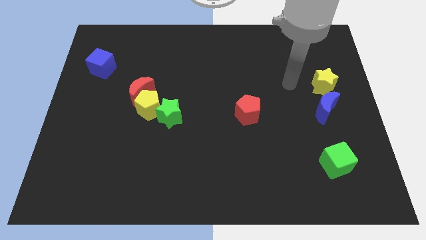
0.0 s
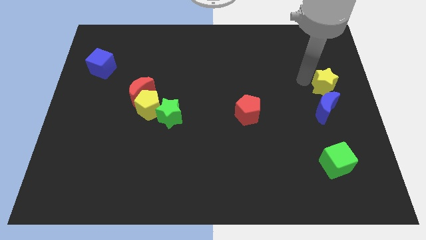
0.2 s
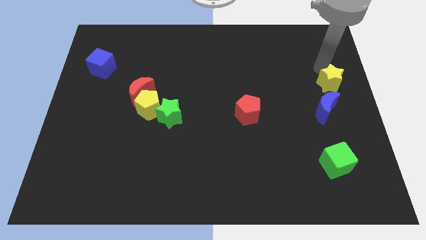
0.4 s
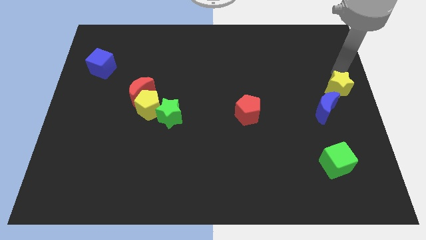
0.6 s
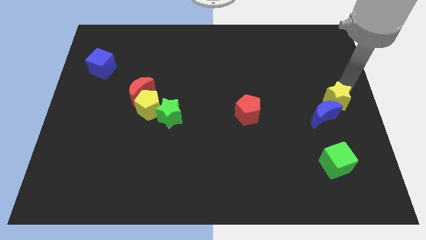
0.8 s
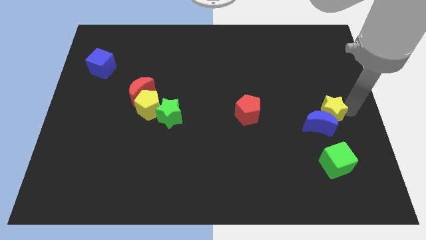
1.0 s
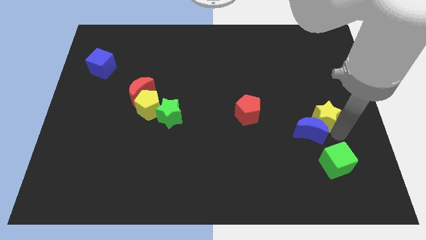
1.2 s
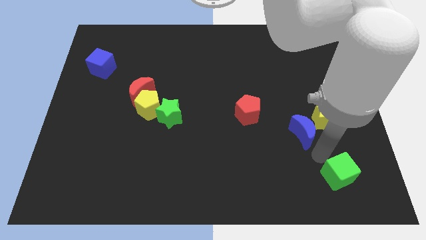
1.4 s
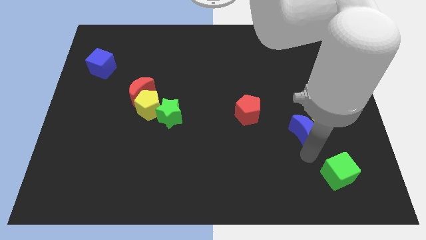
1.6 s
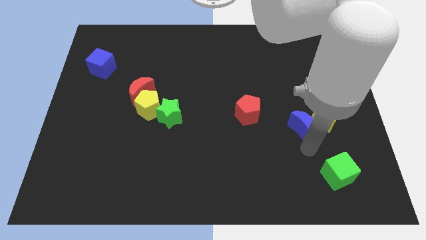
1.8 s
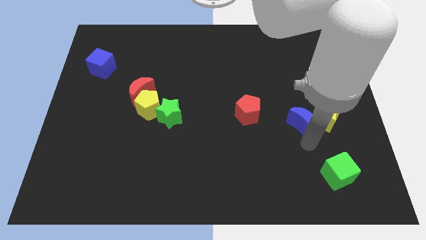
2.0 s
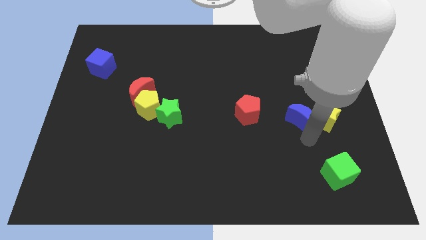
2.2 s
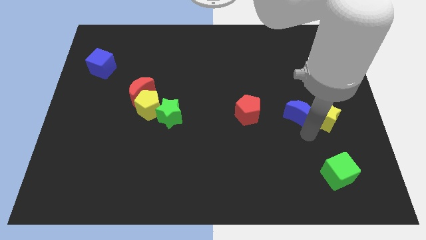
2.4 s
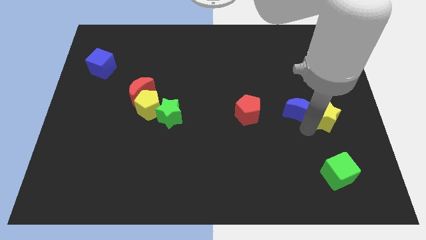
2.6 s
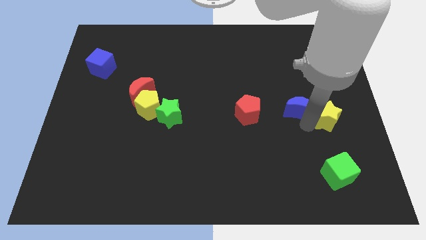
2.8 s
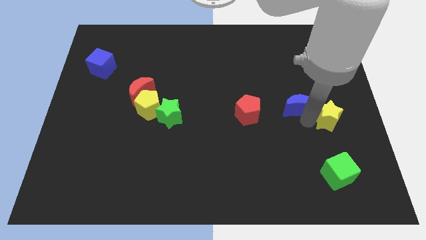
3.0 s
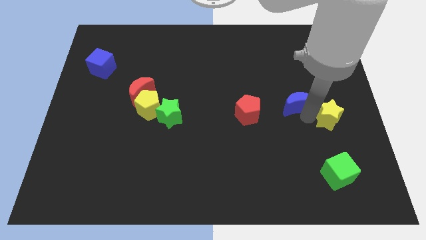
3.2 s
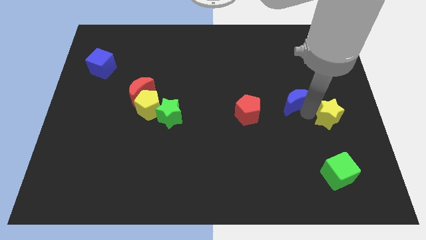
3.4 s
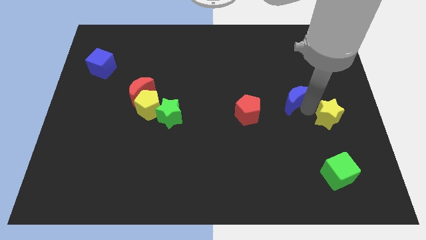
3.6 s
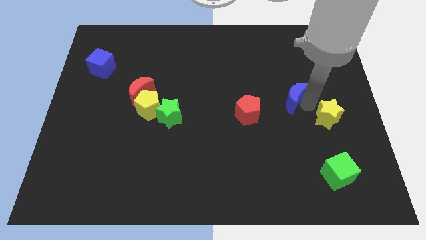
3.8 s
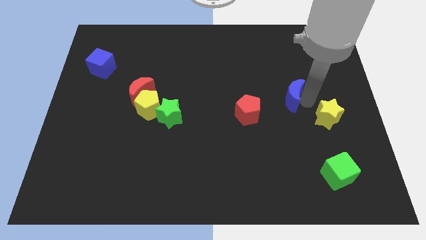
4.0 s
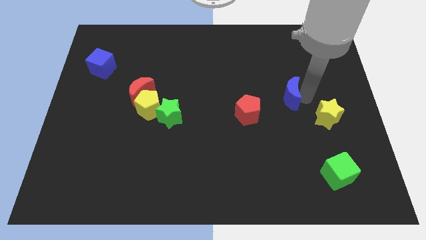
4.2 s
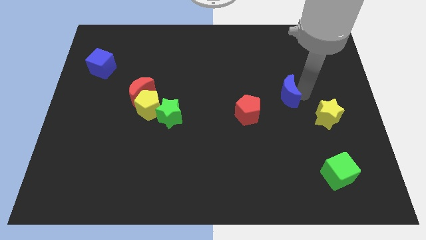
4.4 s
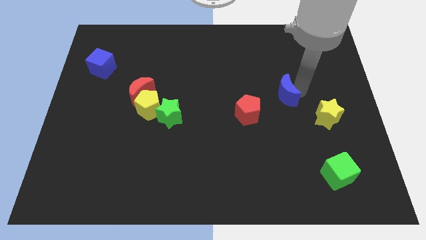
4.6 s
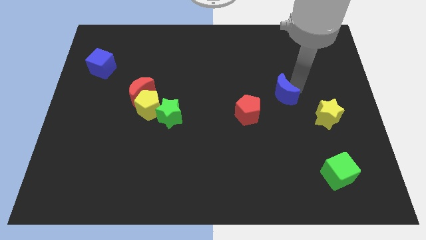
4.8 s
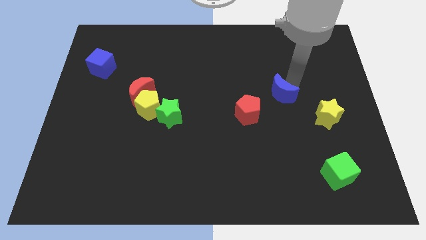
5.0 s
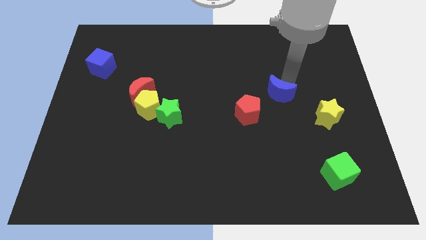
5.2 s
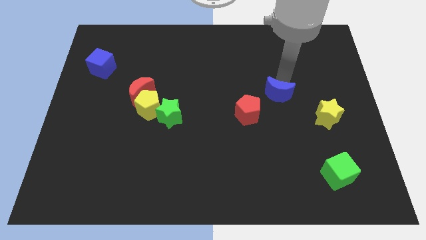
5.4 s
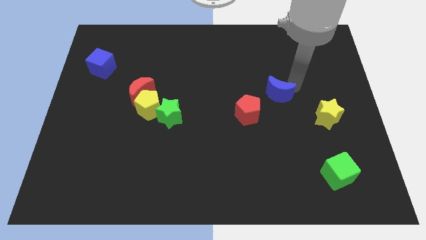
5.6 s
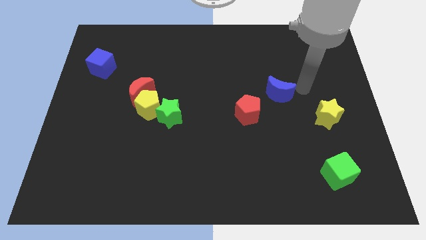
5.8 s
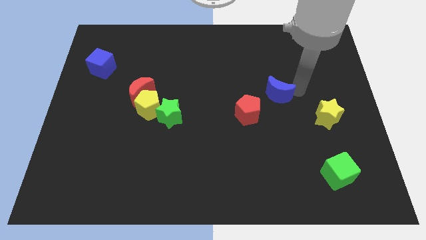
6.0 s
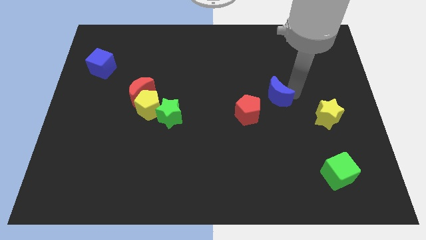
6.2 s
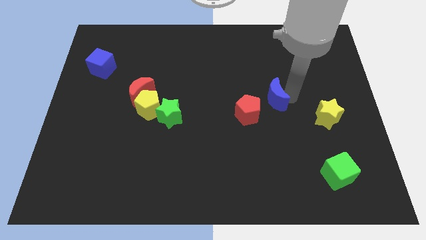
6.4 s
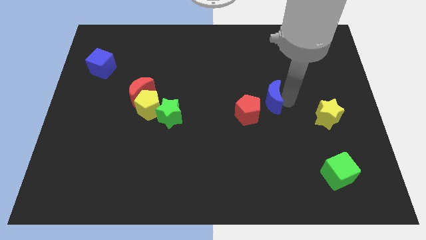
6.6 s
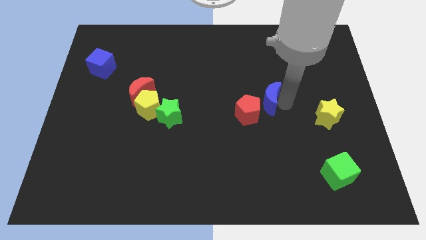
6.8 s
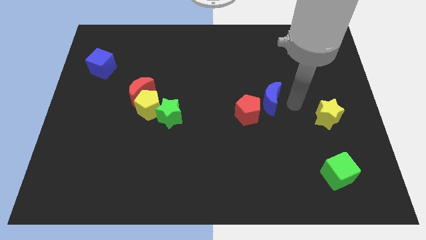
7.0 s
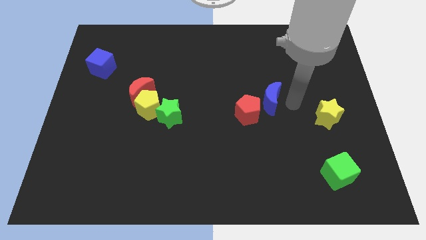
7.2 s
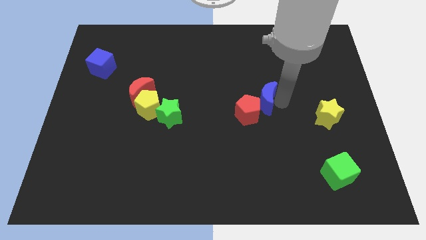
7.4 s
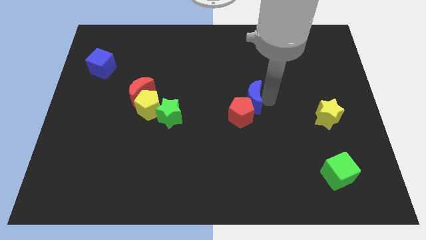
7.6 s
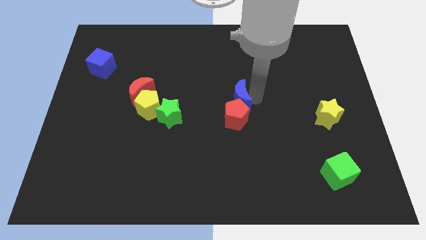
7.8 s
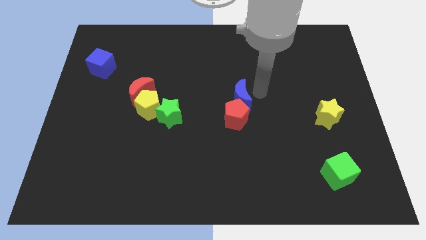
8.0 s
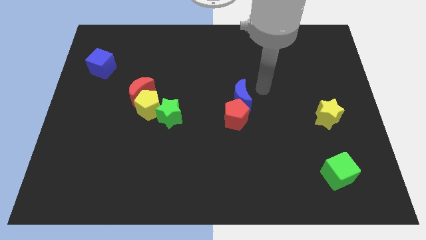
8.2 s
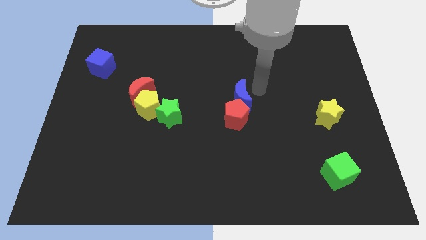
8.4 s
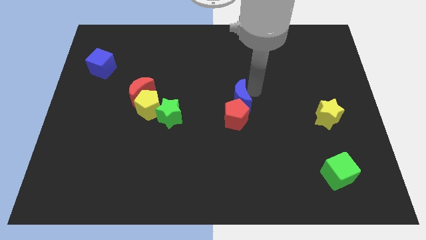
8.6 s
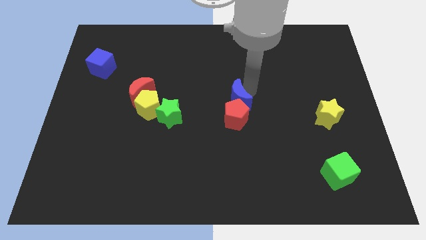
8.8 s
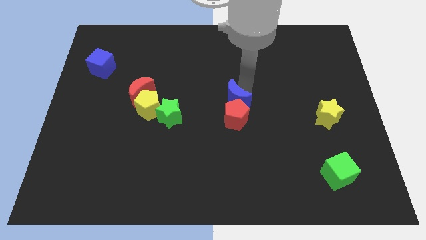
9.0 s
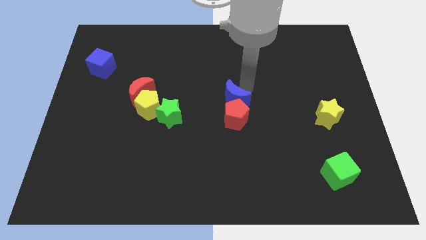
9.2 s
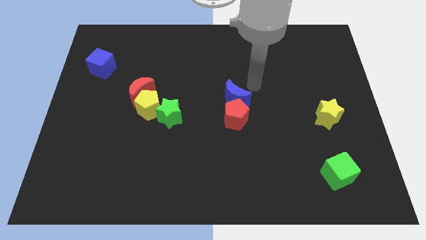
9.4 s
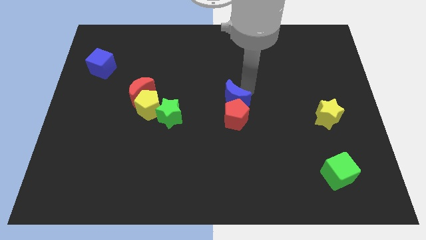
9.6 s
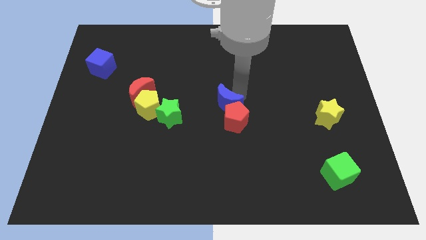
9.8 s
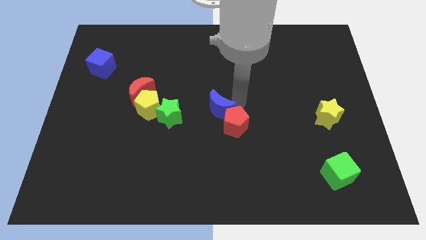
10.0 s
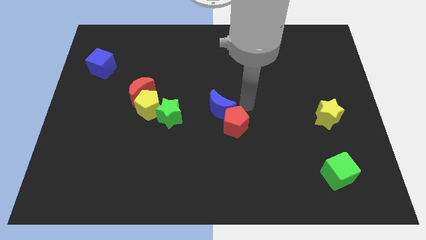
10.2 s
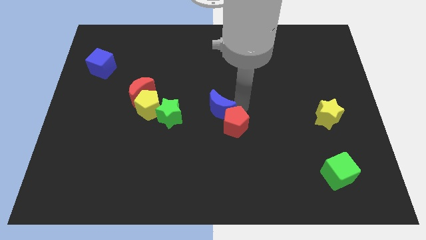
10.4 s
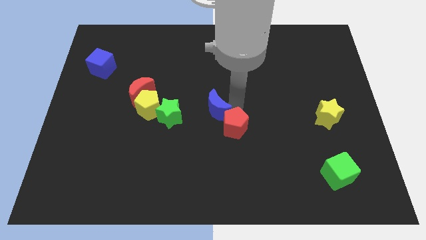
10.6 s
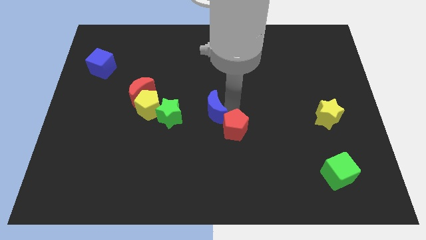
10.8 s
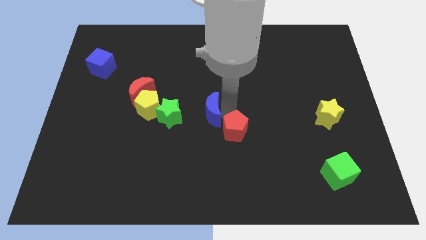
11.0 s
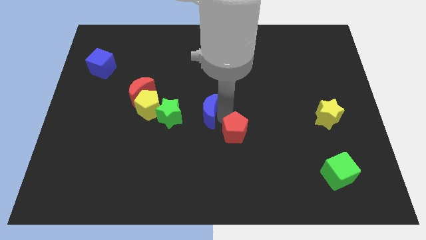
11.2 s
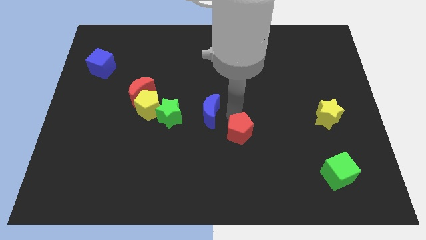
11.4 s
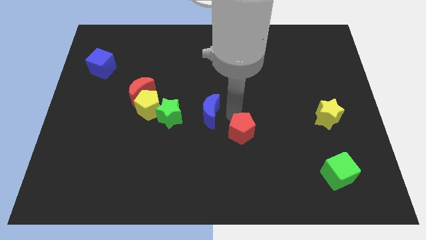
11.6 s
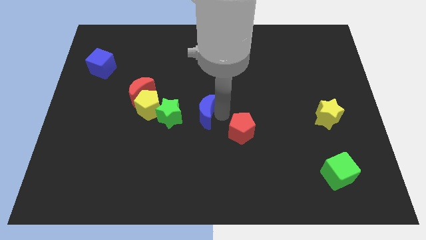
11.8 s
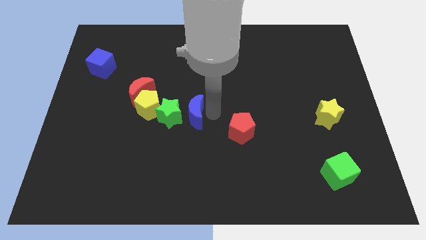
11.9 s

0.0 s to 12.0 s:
slide the blue moon towards the green star

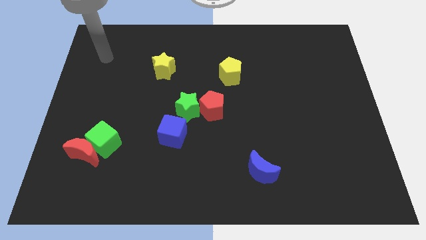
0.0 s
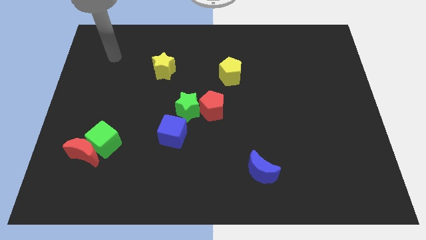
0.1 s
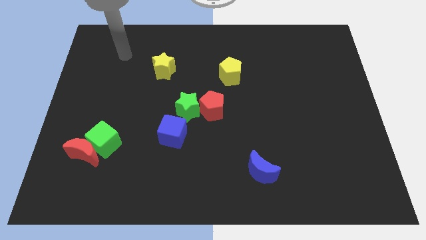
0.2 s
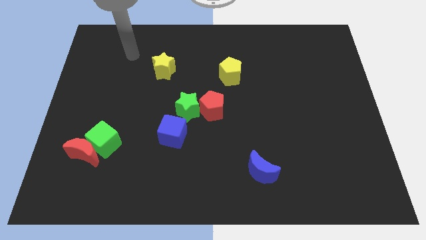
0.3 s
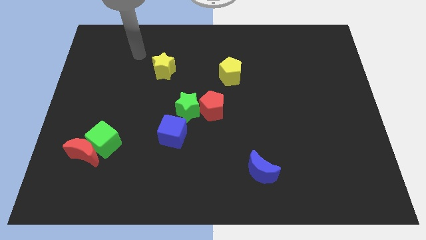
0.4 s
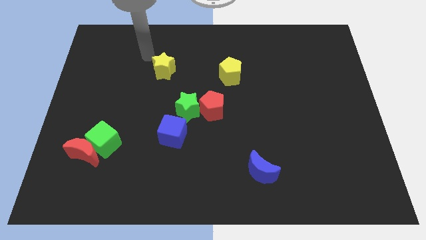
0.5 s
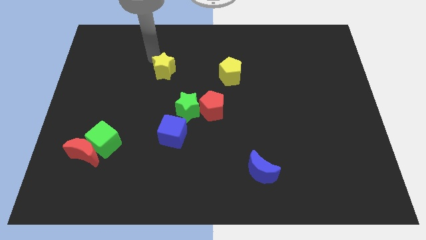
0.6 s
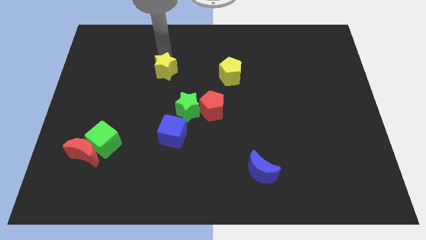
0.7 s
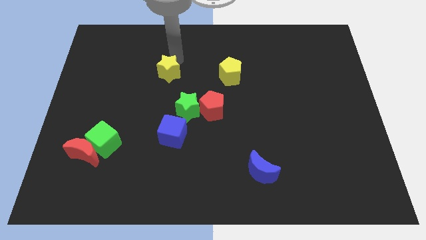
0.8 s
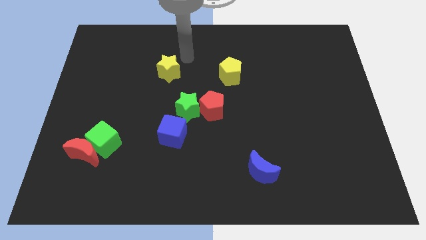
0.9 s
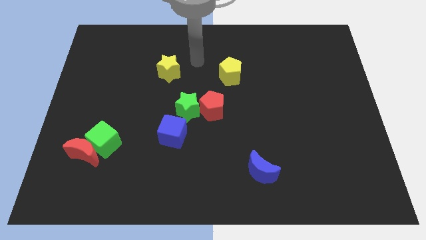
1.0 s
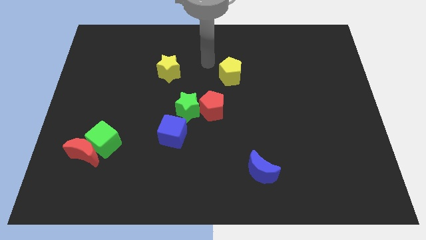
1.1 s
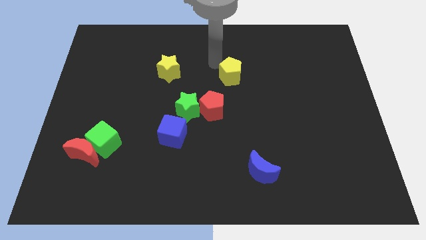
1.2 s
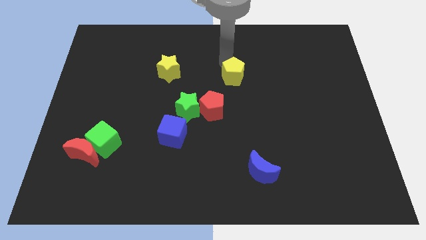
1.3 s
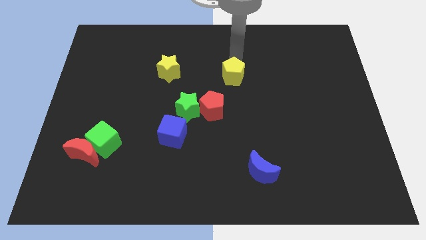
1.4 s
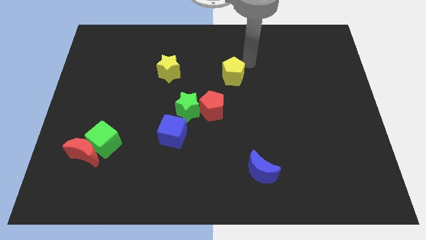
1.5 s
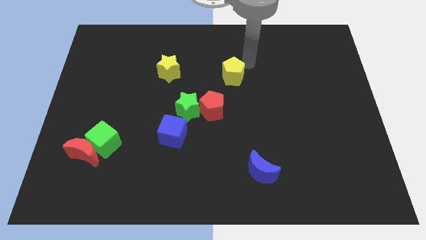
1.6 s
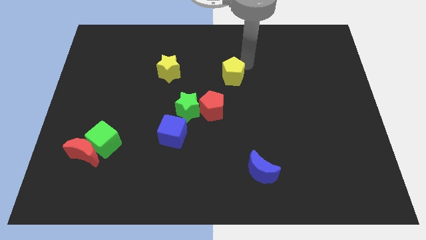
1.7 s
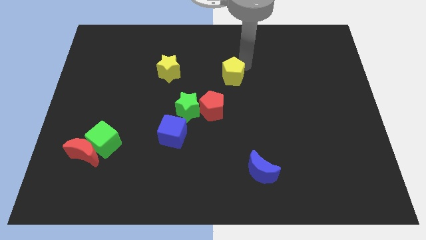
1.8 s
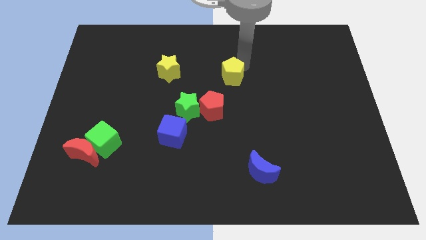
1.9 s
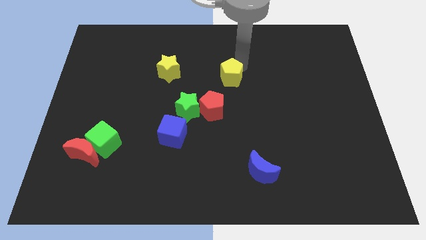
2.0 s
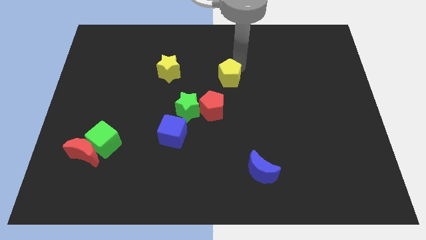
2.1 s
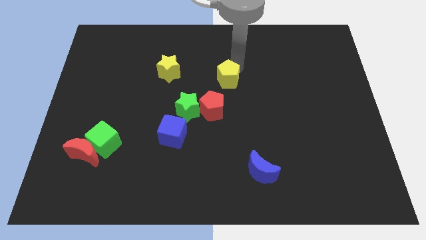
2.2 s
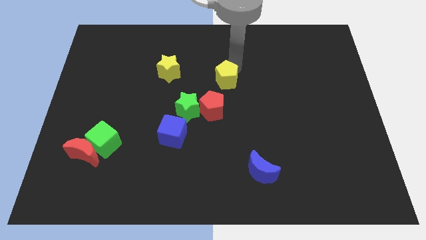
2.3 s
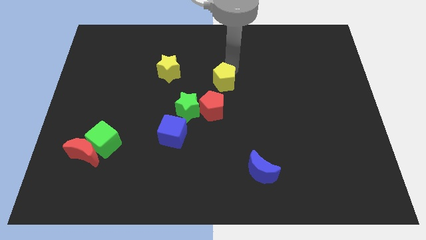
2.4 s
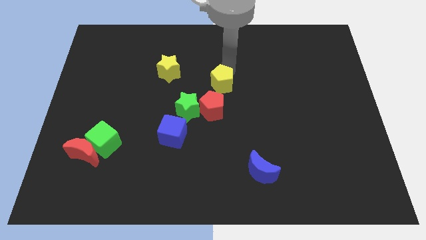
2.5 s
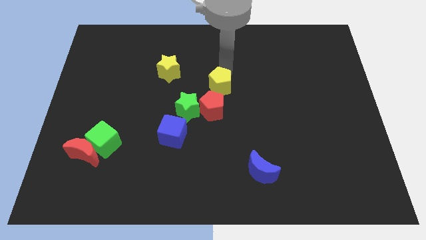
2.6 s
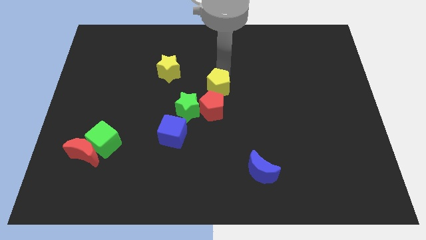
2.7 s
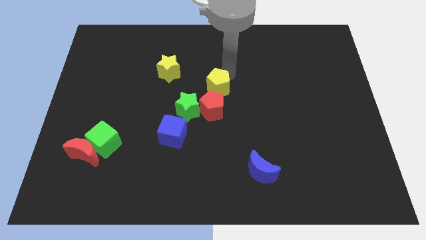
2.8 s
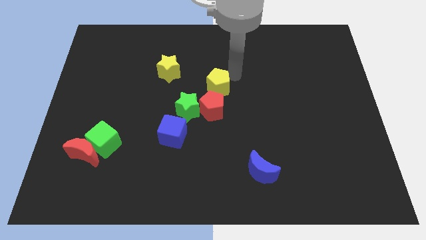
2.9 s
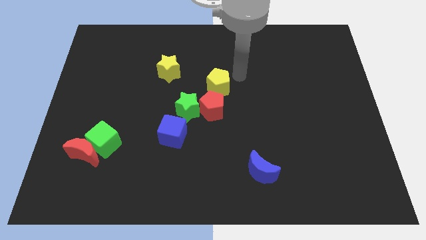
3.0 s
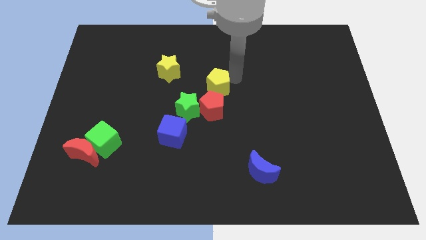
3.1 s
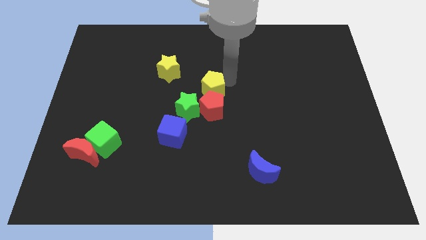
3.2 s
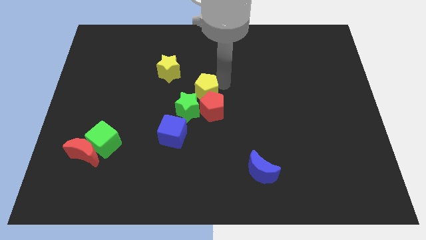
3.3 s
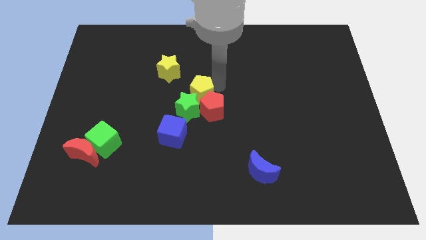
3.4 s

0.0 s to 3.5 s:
put the yellow pentagon next to the green star
